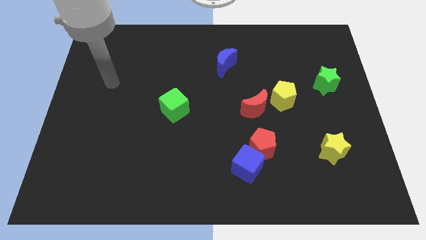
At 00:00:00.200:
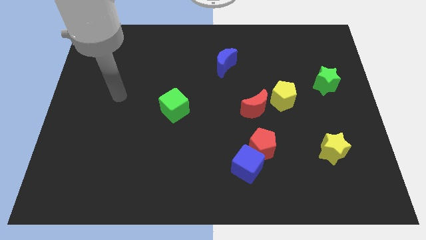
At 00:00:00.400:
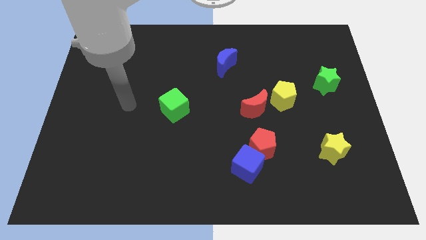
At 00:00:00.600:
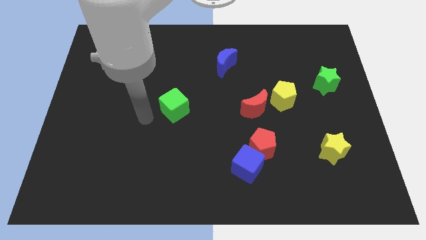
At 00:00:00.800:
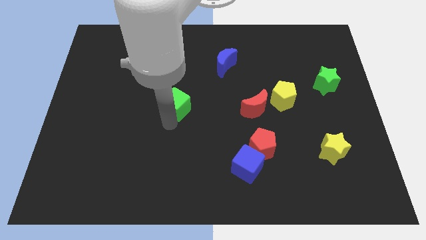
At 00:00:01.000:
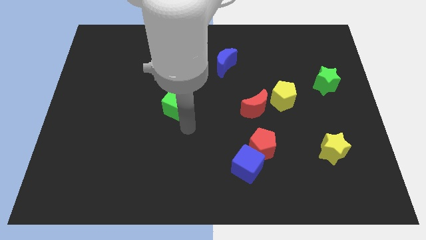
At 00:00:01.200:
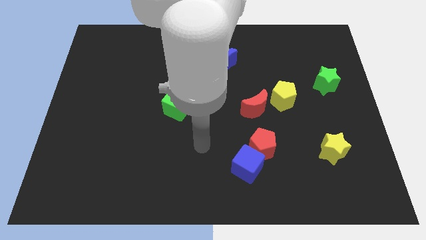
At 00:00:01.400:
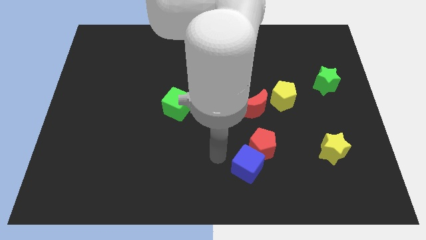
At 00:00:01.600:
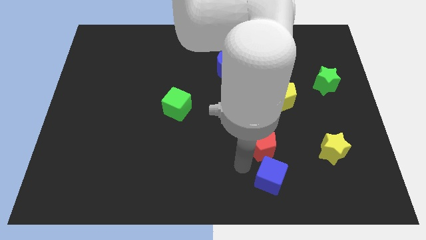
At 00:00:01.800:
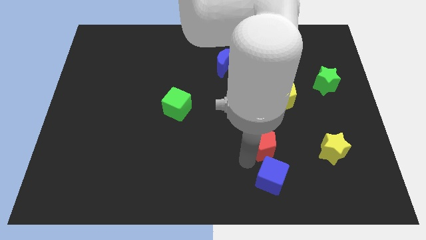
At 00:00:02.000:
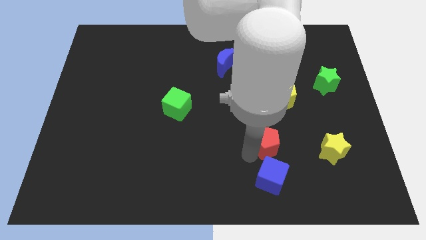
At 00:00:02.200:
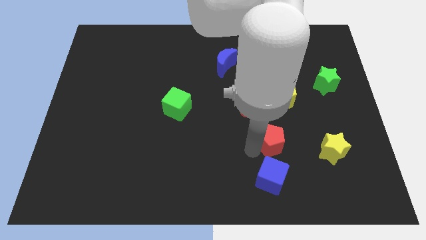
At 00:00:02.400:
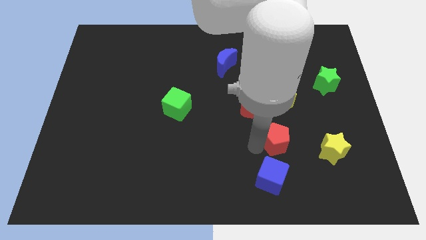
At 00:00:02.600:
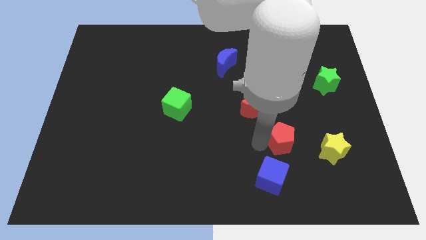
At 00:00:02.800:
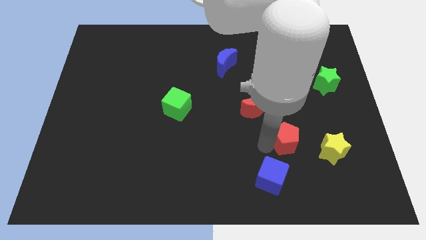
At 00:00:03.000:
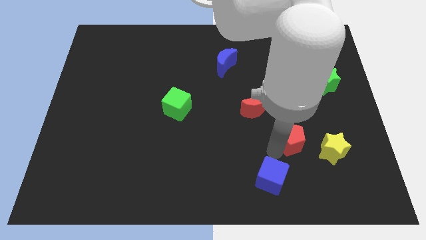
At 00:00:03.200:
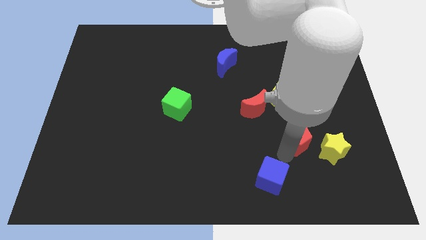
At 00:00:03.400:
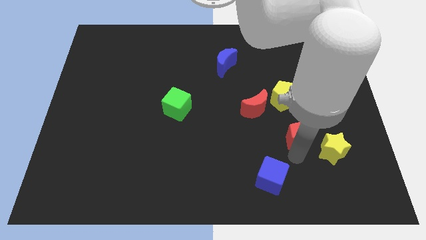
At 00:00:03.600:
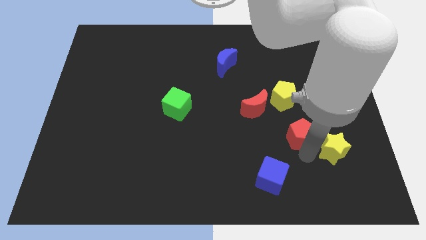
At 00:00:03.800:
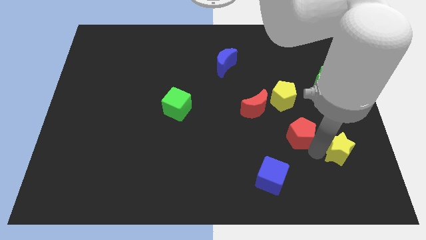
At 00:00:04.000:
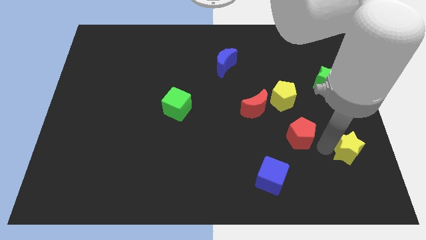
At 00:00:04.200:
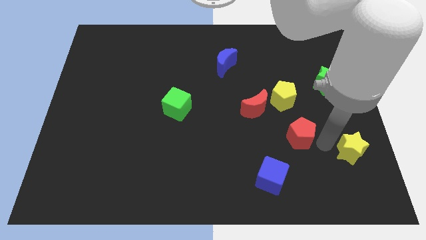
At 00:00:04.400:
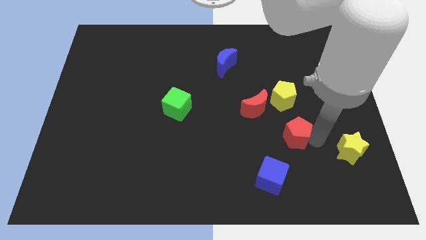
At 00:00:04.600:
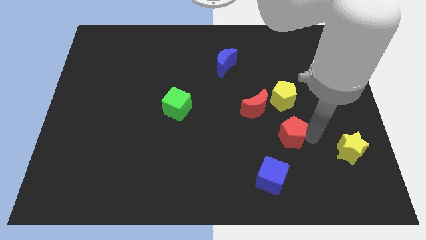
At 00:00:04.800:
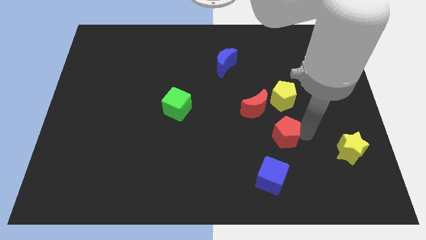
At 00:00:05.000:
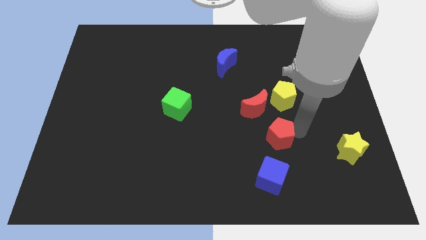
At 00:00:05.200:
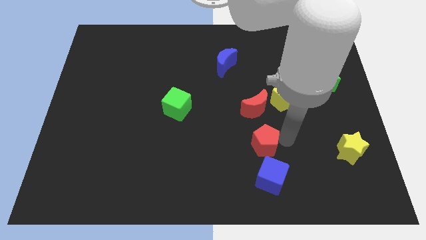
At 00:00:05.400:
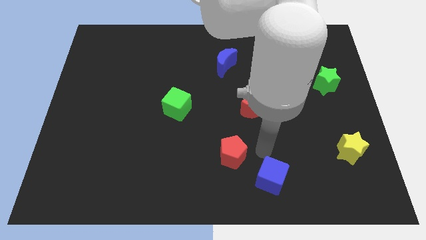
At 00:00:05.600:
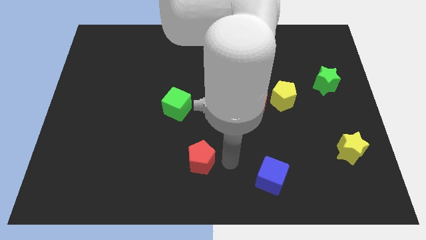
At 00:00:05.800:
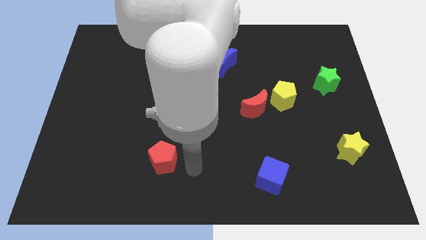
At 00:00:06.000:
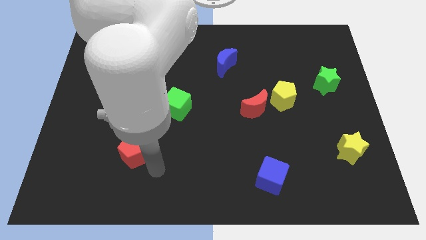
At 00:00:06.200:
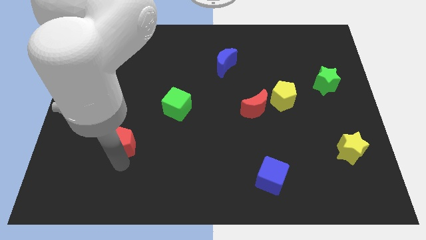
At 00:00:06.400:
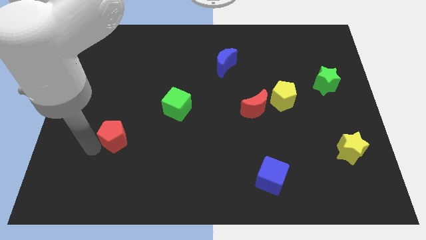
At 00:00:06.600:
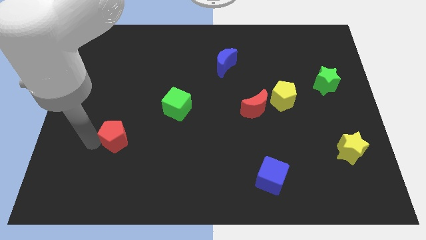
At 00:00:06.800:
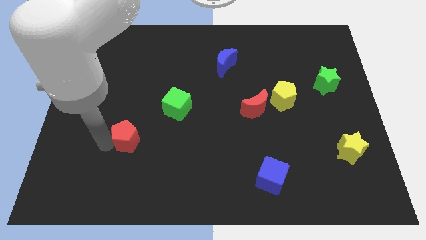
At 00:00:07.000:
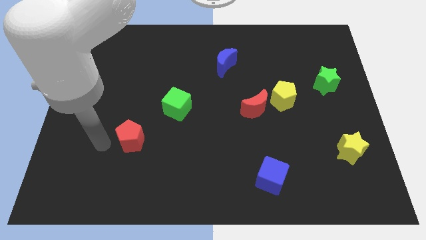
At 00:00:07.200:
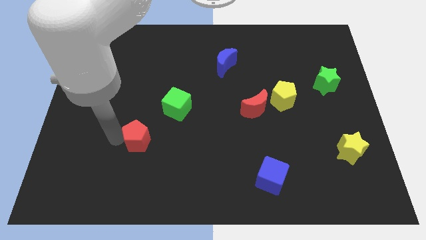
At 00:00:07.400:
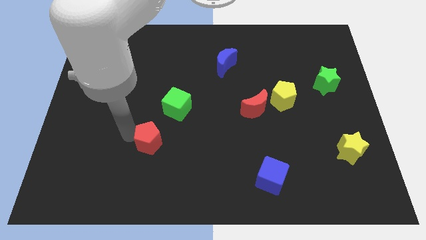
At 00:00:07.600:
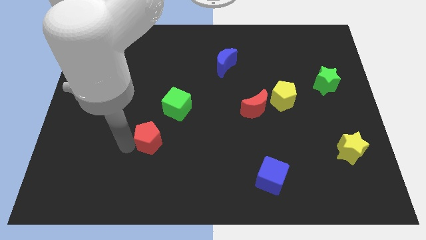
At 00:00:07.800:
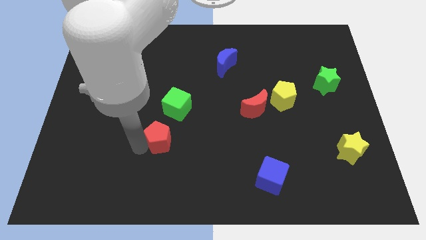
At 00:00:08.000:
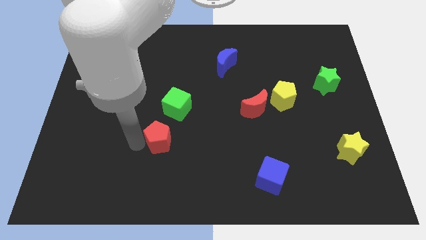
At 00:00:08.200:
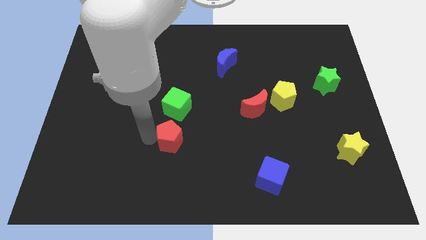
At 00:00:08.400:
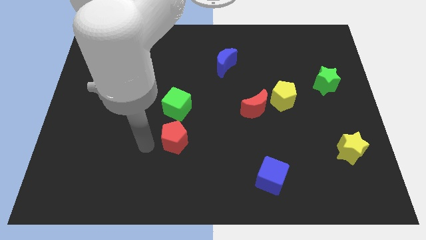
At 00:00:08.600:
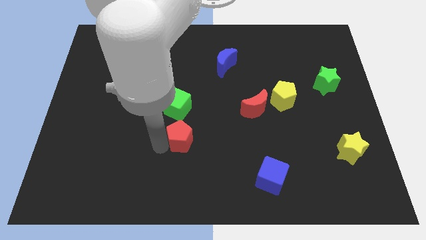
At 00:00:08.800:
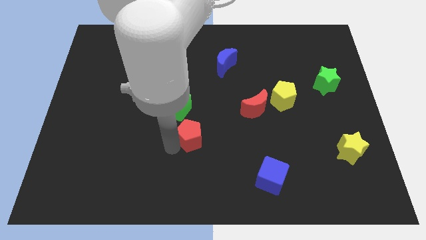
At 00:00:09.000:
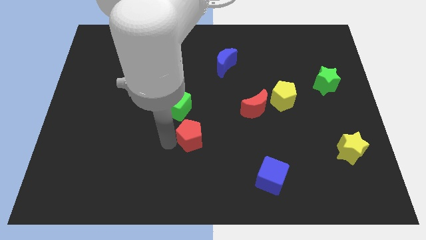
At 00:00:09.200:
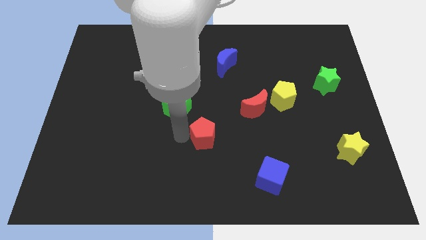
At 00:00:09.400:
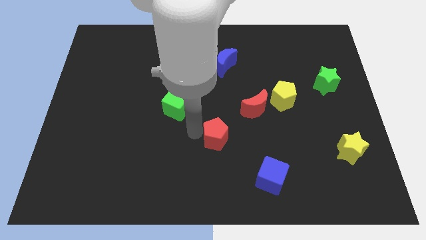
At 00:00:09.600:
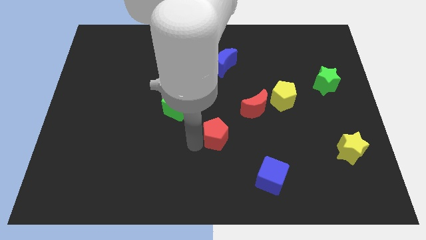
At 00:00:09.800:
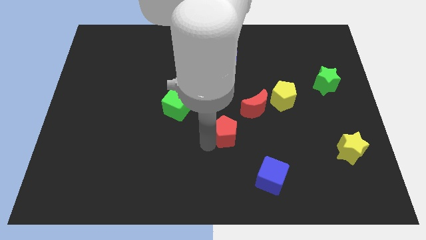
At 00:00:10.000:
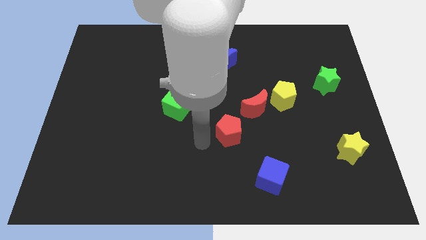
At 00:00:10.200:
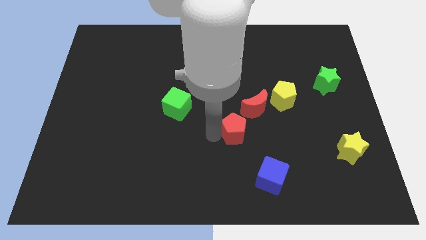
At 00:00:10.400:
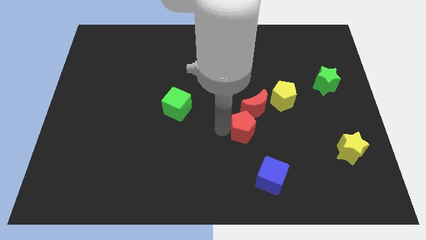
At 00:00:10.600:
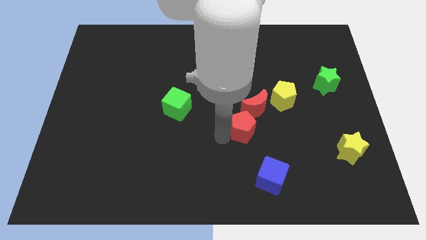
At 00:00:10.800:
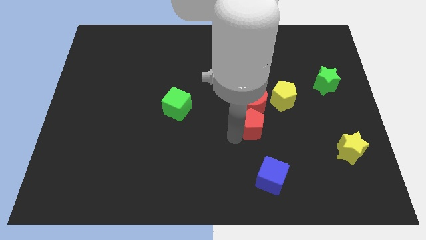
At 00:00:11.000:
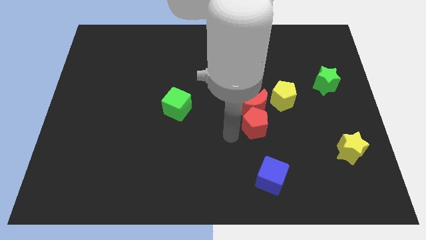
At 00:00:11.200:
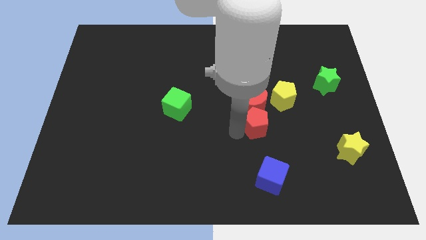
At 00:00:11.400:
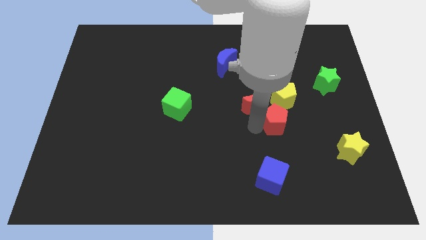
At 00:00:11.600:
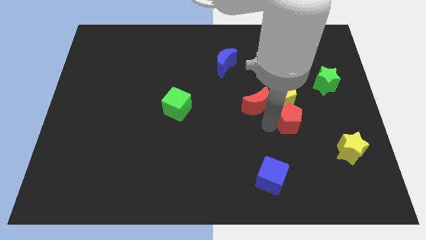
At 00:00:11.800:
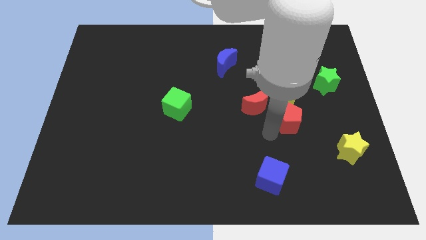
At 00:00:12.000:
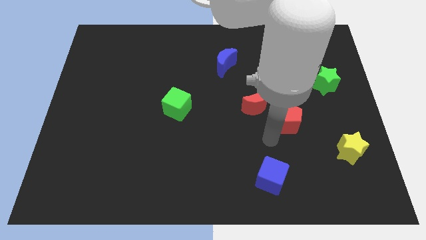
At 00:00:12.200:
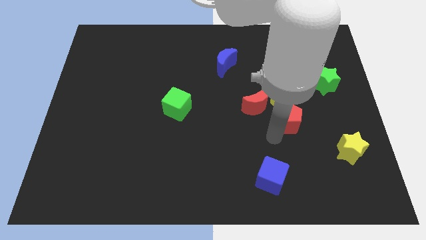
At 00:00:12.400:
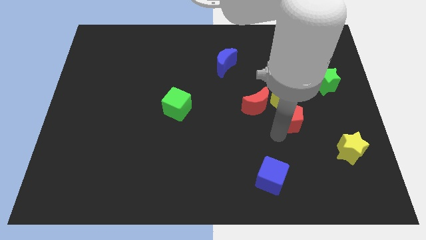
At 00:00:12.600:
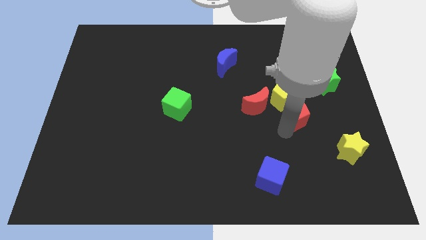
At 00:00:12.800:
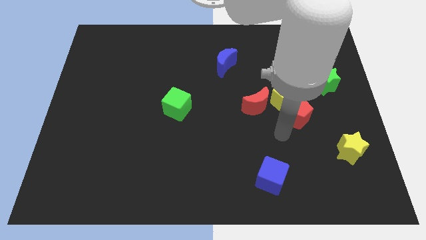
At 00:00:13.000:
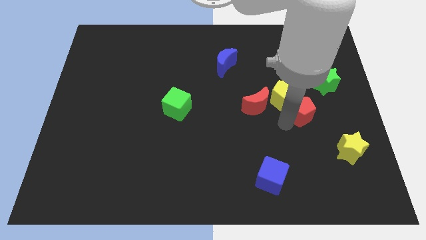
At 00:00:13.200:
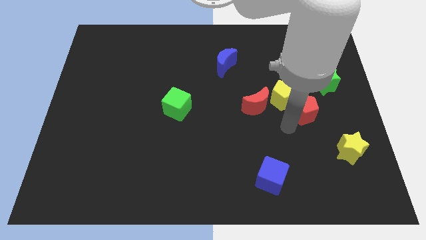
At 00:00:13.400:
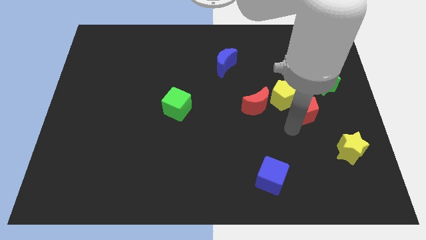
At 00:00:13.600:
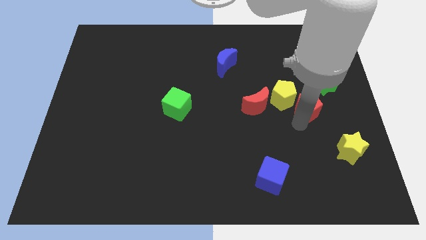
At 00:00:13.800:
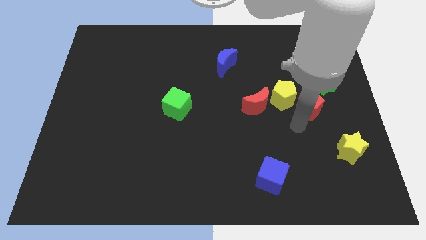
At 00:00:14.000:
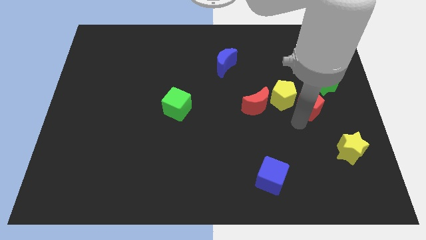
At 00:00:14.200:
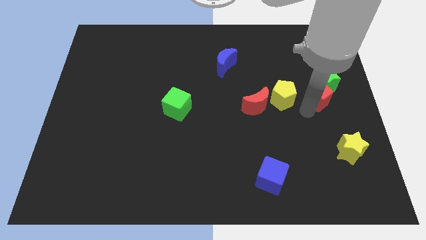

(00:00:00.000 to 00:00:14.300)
put the red pentagon towards the green star
